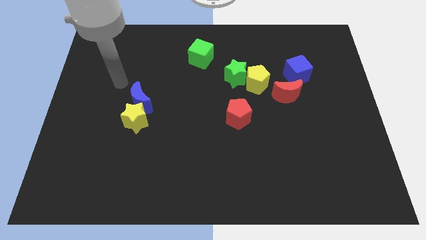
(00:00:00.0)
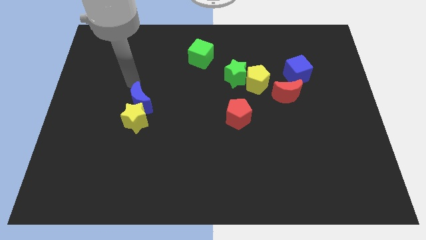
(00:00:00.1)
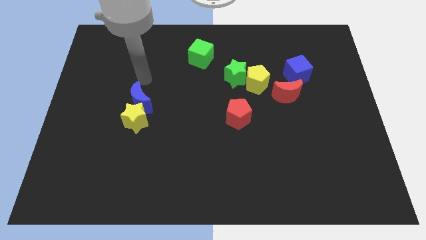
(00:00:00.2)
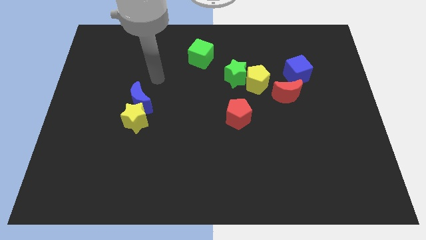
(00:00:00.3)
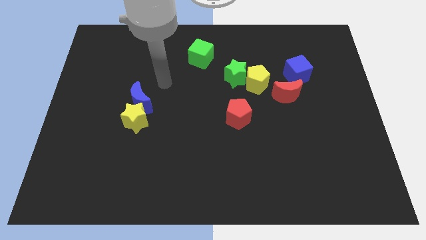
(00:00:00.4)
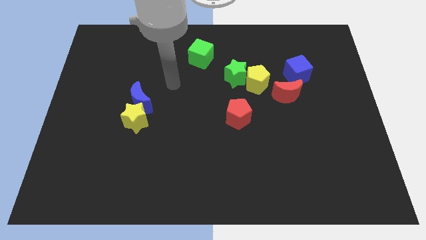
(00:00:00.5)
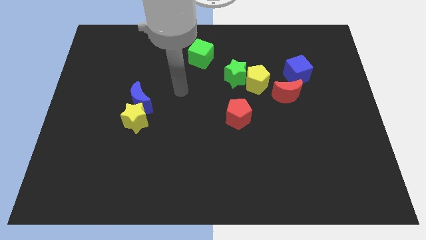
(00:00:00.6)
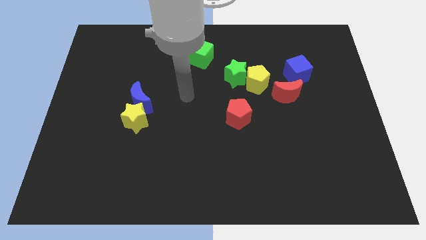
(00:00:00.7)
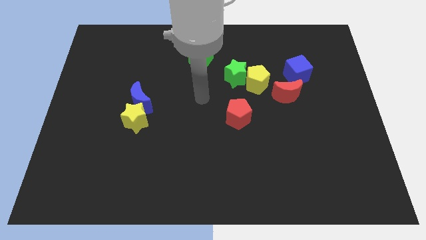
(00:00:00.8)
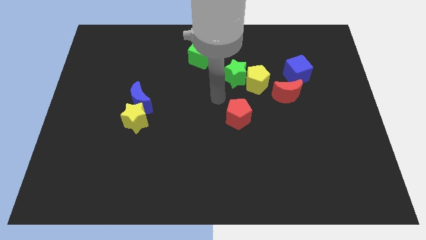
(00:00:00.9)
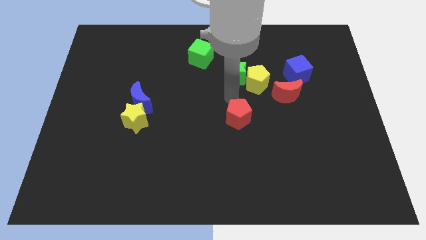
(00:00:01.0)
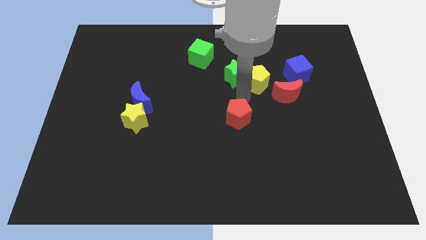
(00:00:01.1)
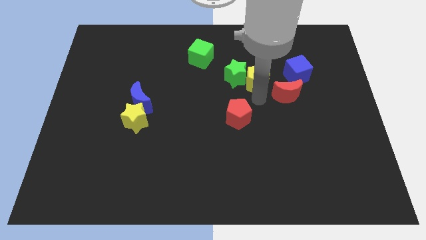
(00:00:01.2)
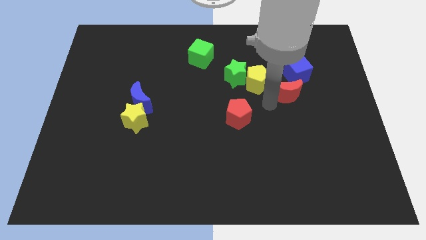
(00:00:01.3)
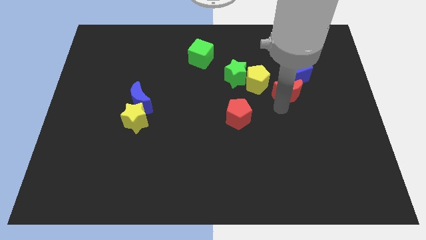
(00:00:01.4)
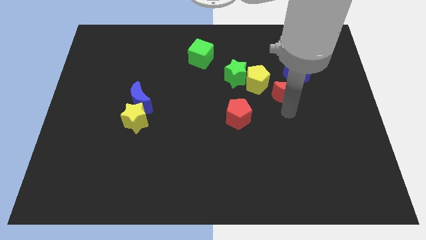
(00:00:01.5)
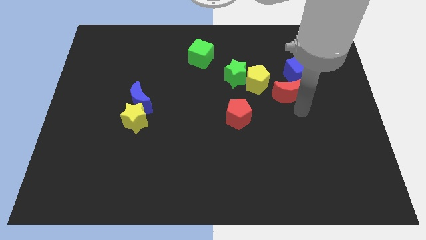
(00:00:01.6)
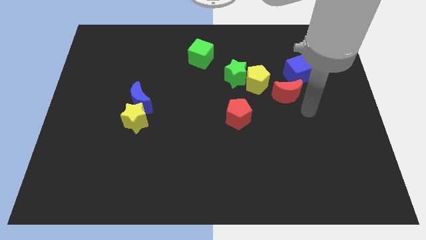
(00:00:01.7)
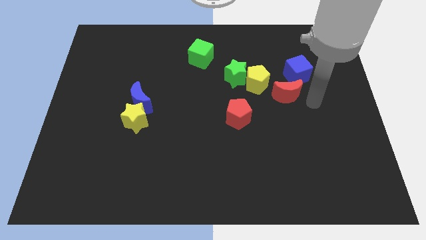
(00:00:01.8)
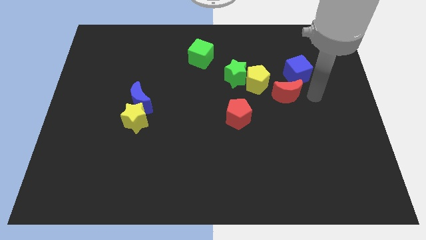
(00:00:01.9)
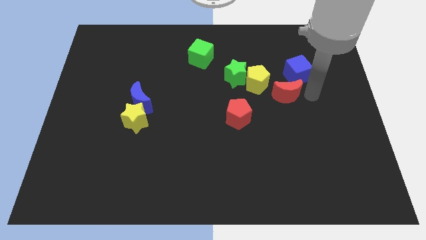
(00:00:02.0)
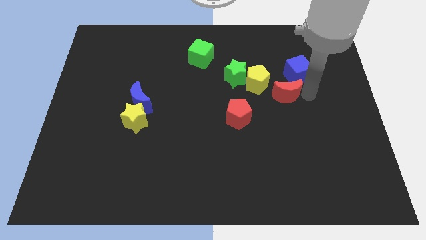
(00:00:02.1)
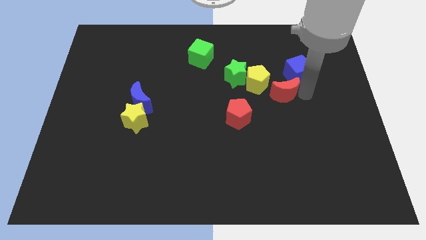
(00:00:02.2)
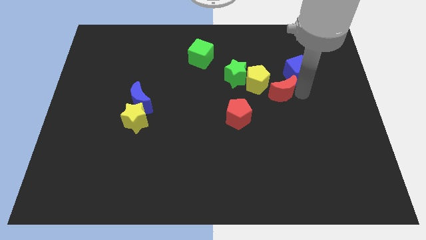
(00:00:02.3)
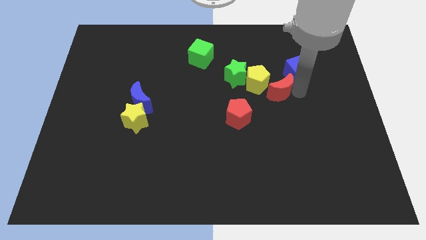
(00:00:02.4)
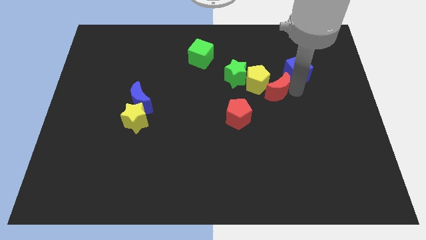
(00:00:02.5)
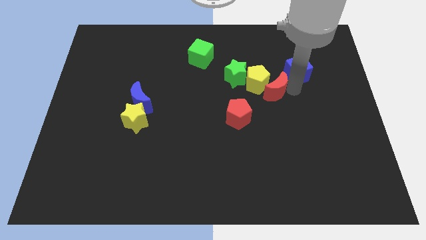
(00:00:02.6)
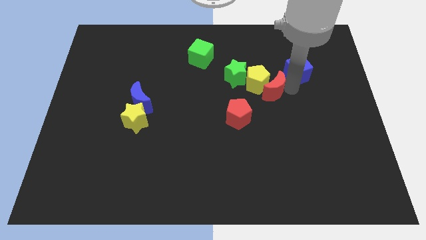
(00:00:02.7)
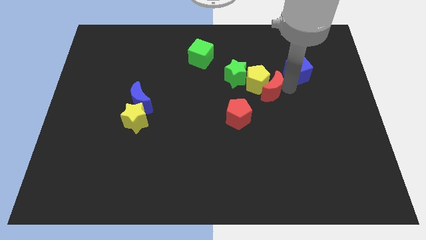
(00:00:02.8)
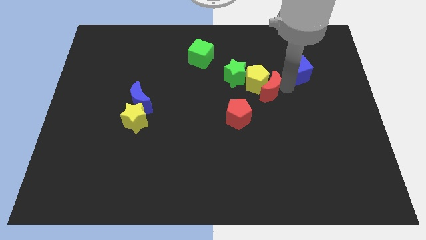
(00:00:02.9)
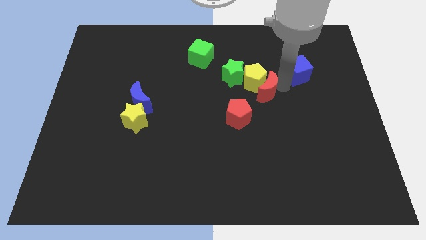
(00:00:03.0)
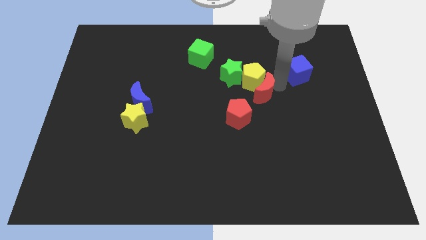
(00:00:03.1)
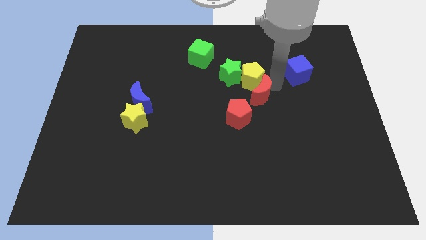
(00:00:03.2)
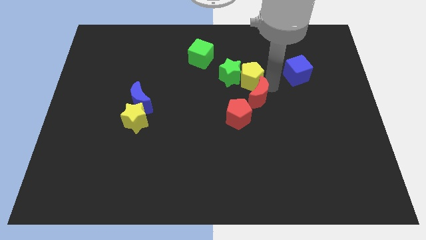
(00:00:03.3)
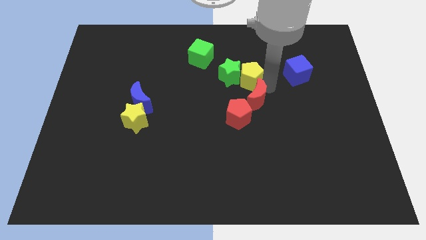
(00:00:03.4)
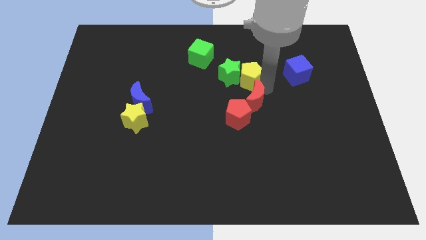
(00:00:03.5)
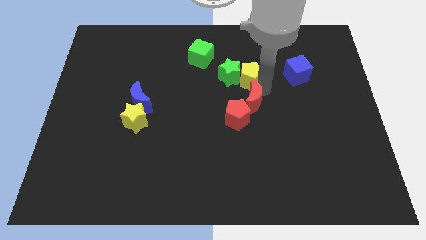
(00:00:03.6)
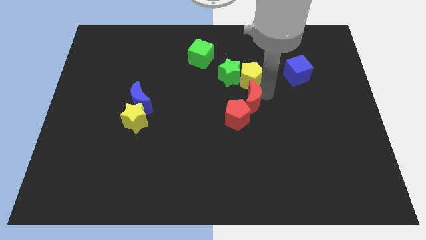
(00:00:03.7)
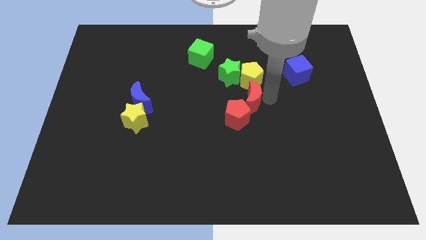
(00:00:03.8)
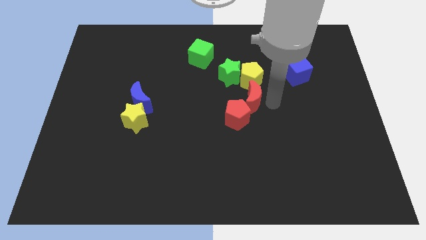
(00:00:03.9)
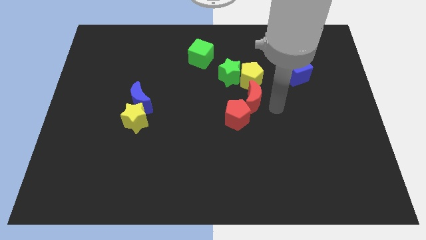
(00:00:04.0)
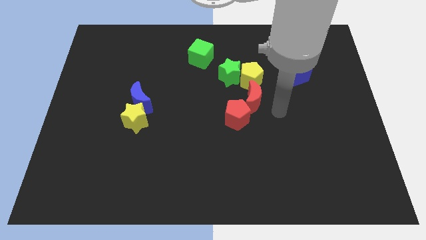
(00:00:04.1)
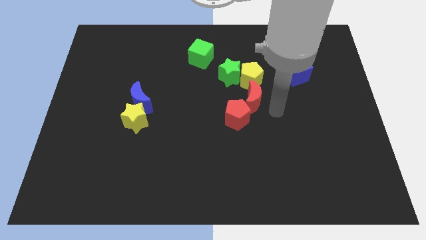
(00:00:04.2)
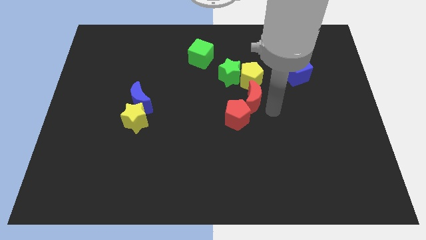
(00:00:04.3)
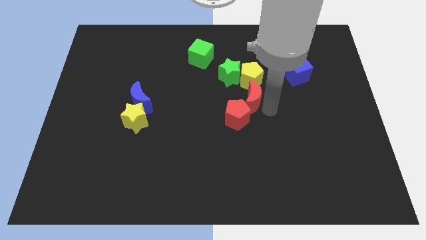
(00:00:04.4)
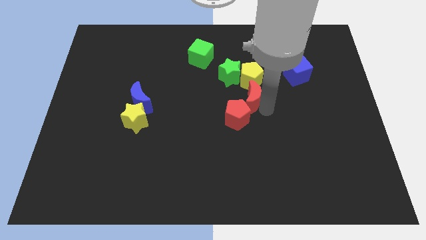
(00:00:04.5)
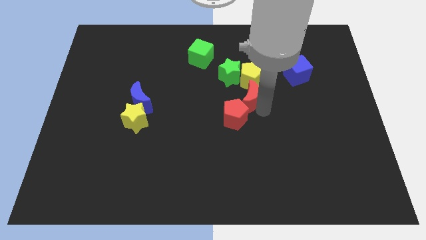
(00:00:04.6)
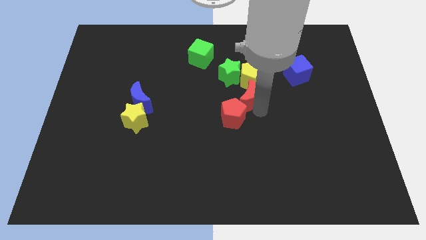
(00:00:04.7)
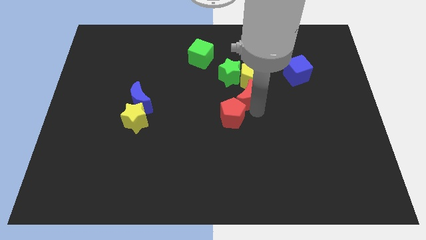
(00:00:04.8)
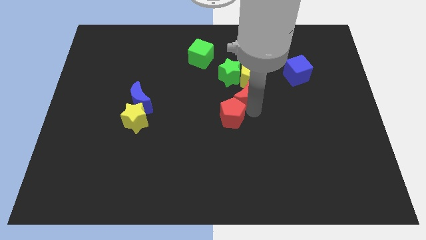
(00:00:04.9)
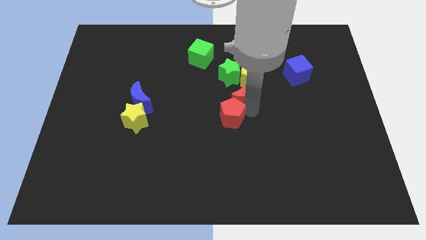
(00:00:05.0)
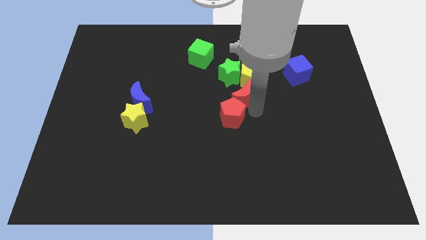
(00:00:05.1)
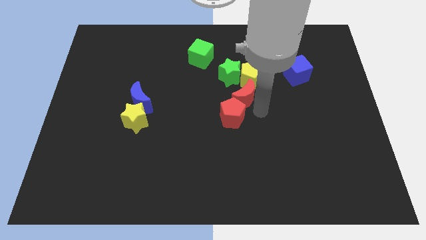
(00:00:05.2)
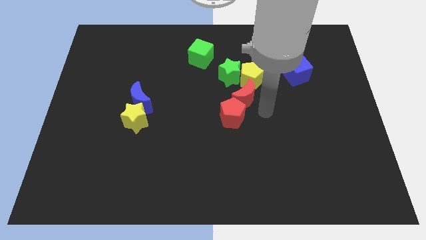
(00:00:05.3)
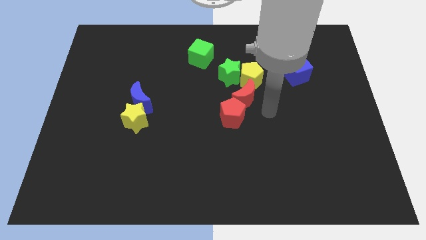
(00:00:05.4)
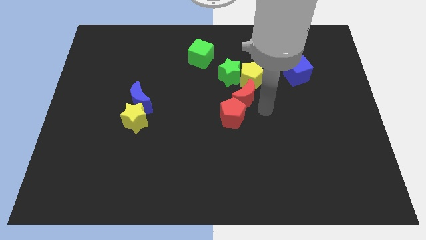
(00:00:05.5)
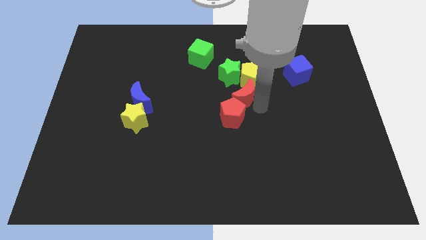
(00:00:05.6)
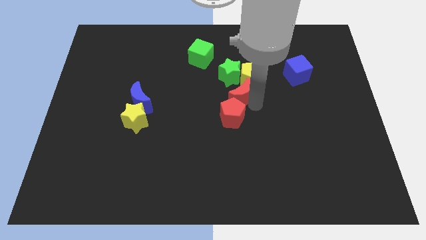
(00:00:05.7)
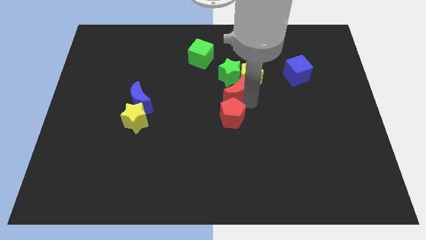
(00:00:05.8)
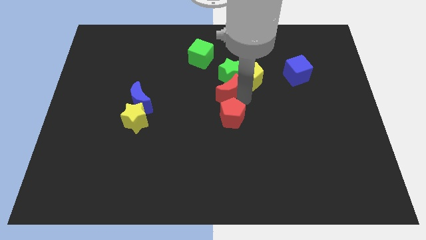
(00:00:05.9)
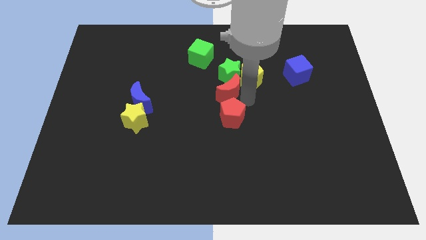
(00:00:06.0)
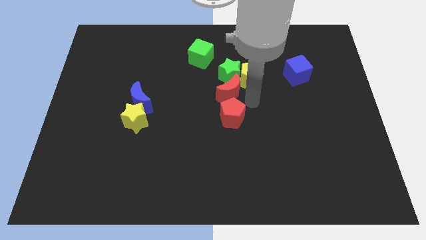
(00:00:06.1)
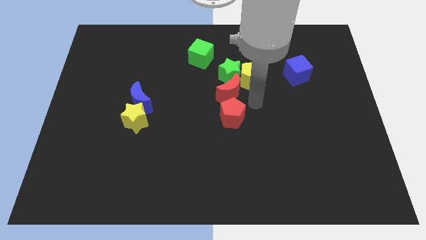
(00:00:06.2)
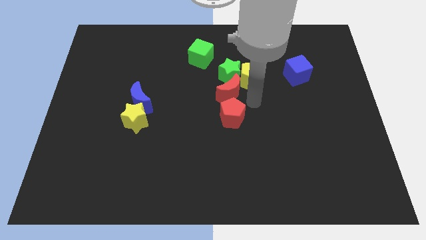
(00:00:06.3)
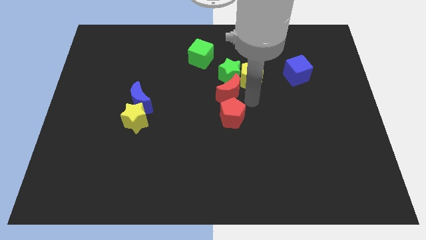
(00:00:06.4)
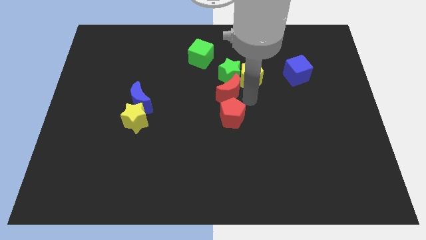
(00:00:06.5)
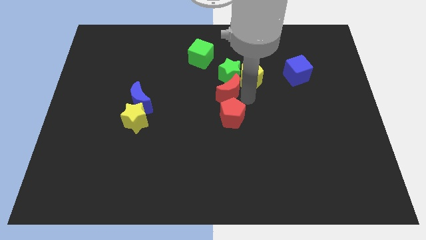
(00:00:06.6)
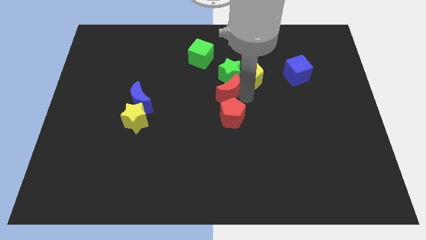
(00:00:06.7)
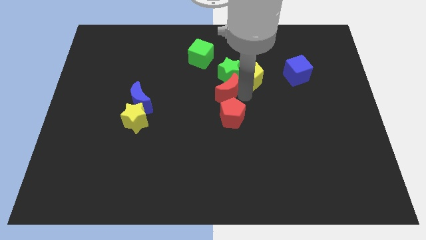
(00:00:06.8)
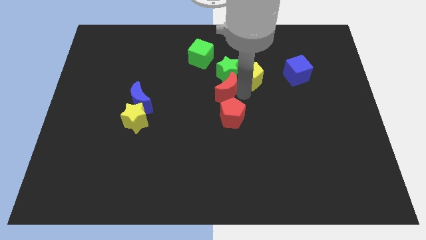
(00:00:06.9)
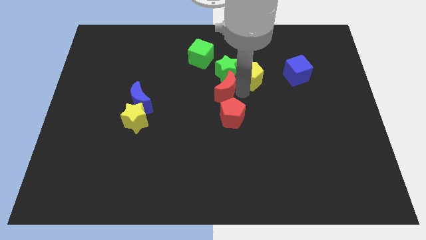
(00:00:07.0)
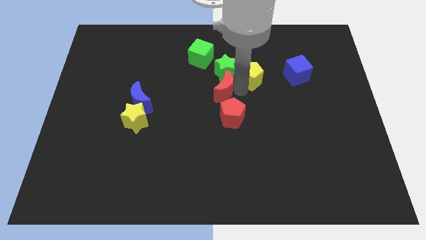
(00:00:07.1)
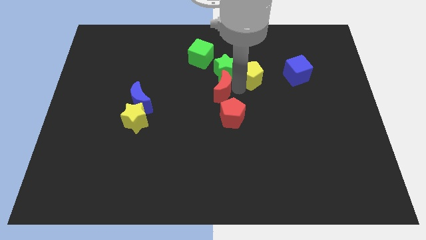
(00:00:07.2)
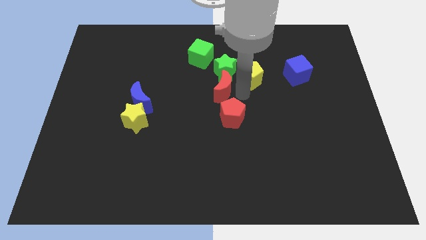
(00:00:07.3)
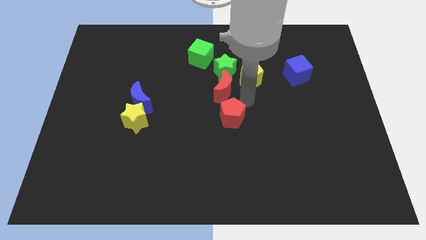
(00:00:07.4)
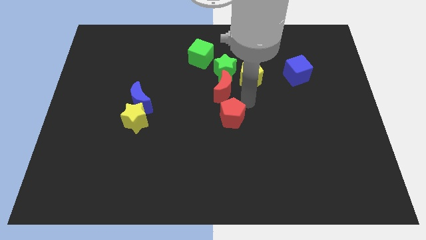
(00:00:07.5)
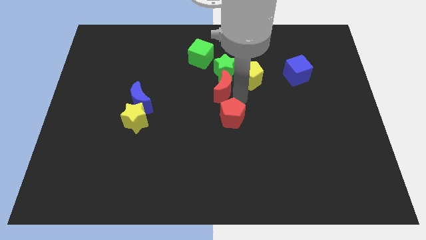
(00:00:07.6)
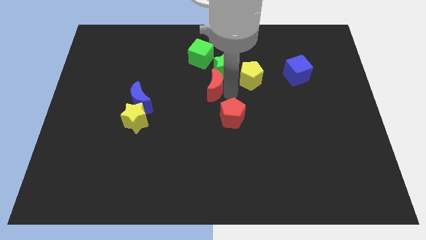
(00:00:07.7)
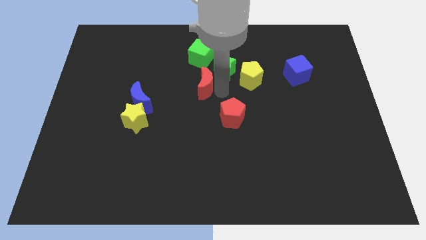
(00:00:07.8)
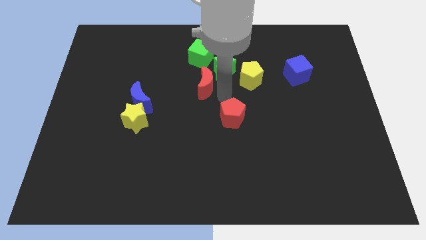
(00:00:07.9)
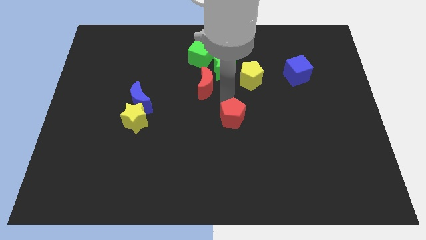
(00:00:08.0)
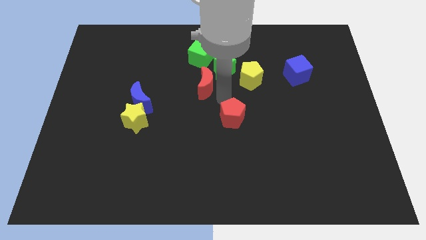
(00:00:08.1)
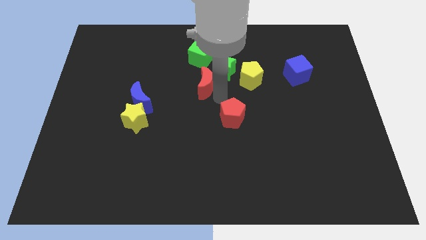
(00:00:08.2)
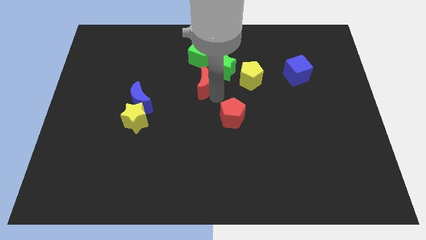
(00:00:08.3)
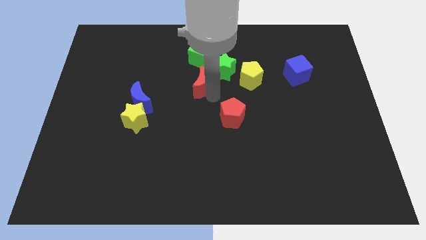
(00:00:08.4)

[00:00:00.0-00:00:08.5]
slide the red moon to the left of the green star

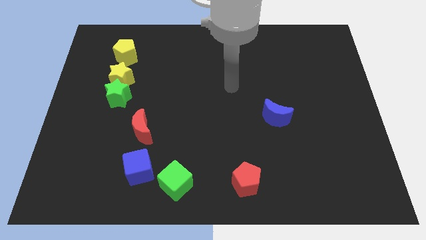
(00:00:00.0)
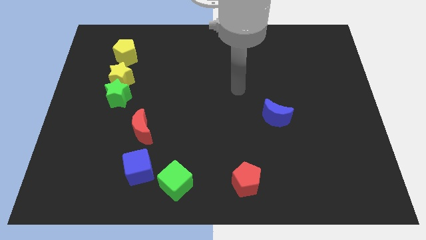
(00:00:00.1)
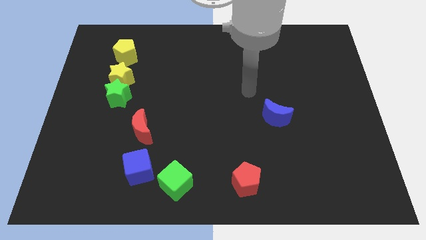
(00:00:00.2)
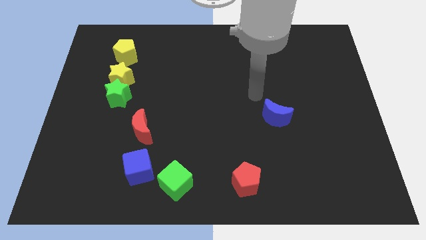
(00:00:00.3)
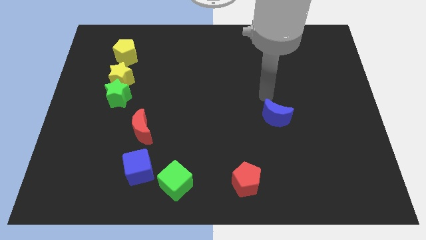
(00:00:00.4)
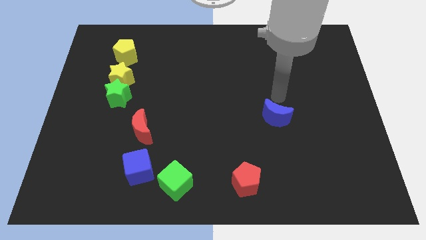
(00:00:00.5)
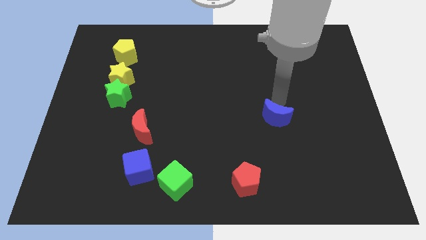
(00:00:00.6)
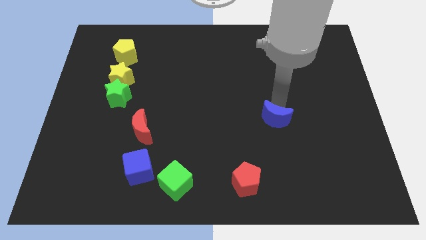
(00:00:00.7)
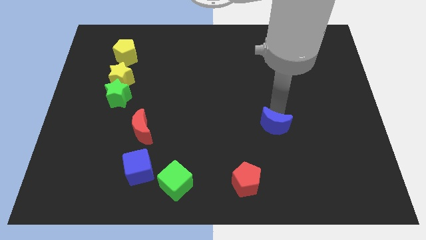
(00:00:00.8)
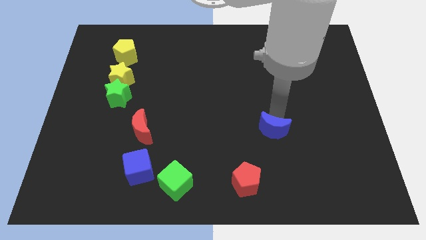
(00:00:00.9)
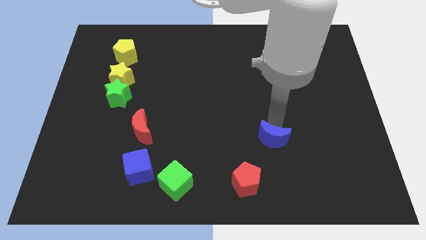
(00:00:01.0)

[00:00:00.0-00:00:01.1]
put the blue moon to the top right side of the red pentagon
